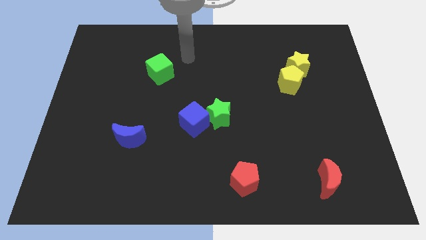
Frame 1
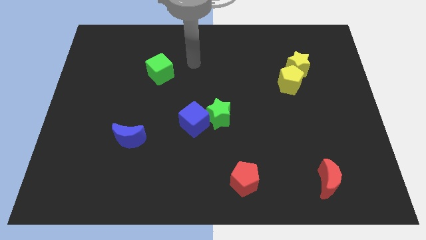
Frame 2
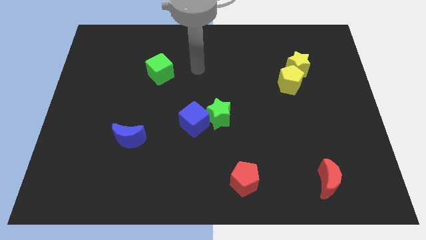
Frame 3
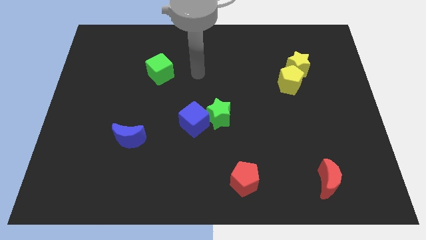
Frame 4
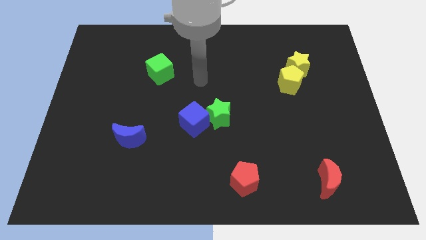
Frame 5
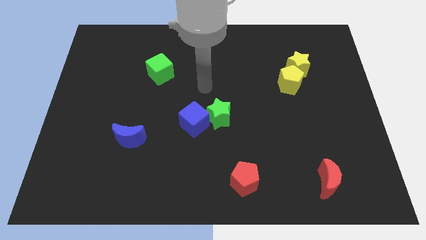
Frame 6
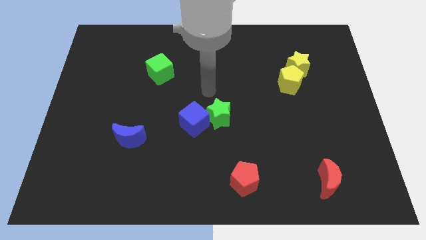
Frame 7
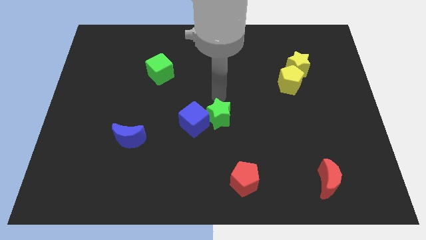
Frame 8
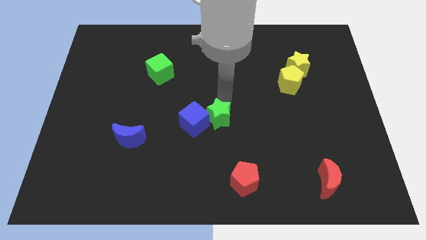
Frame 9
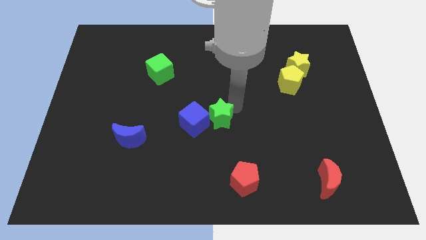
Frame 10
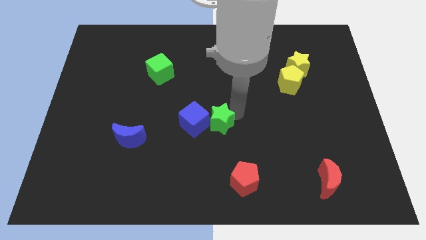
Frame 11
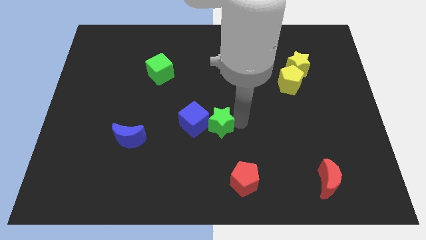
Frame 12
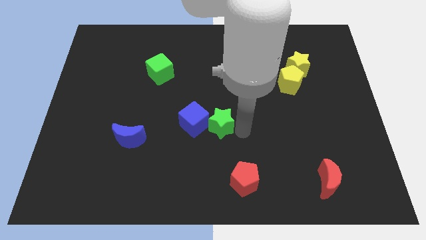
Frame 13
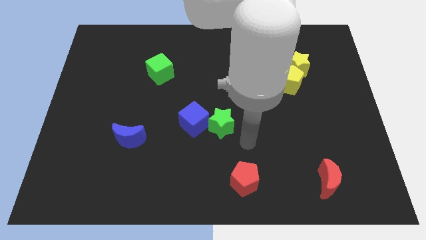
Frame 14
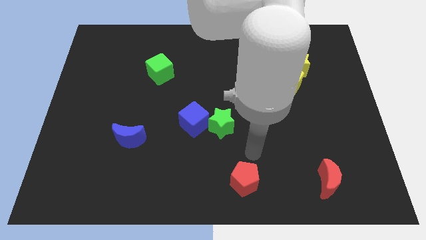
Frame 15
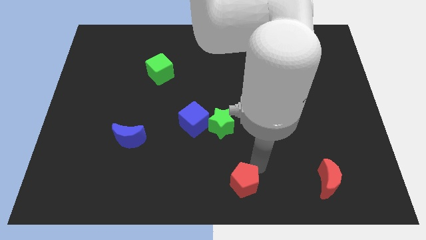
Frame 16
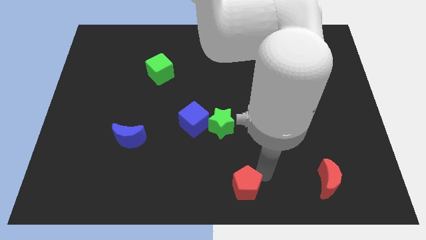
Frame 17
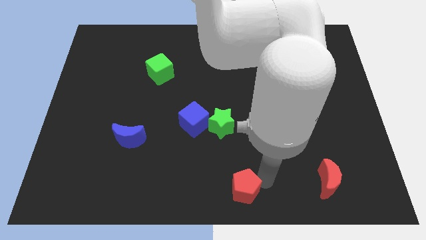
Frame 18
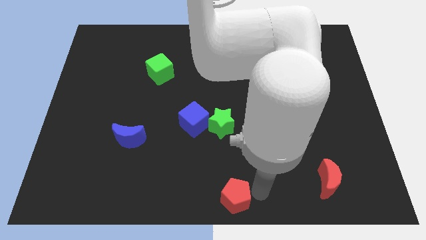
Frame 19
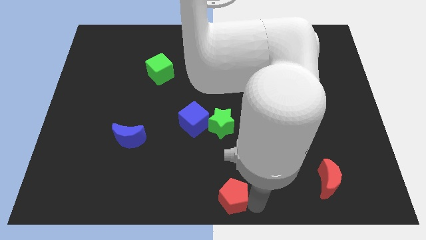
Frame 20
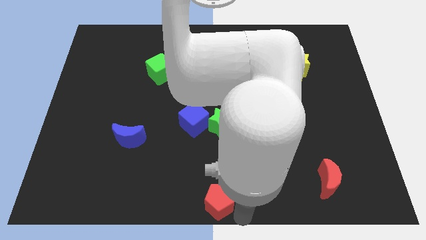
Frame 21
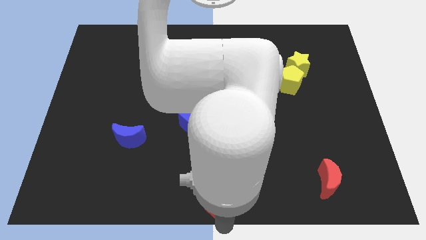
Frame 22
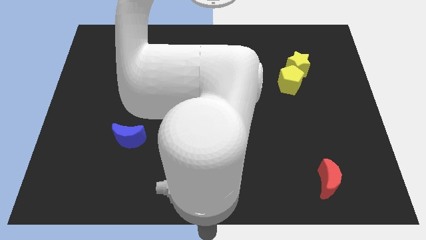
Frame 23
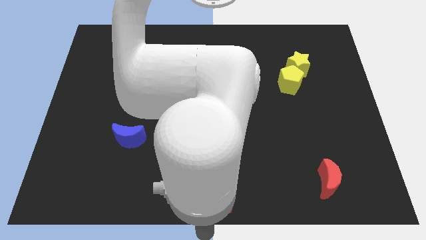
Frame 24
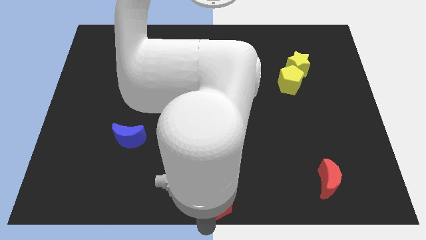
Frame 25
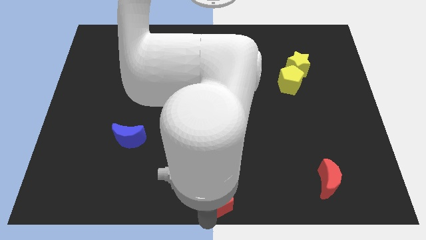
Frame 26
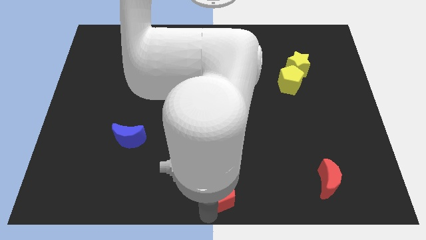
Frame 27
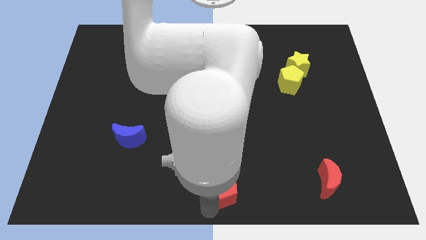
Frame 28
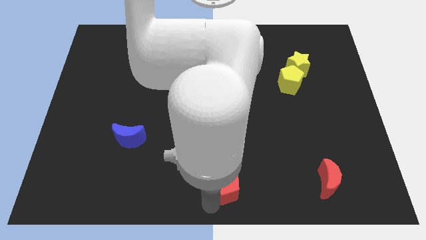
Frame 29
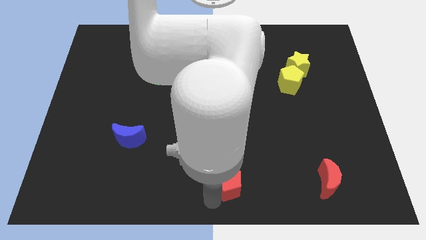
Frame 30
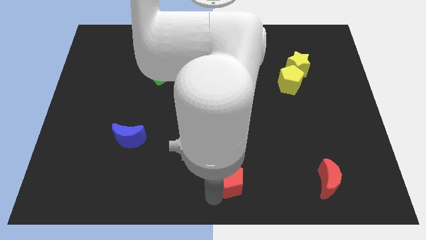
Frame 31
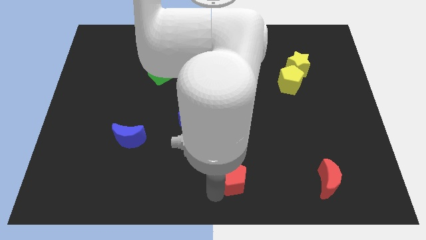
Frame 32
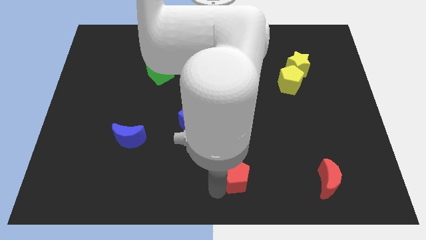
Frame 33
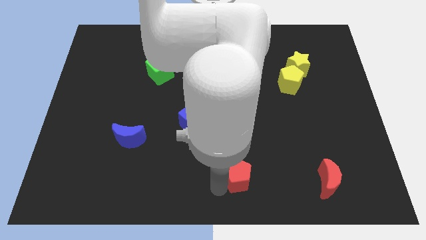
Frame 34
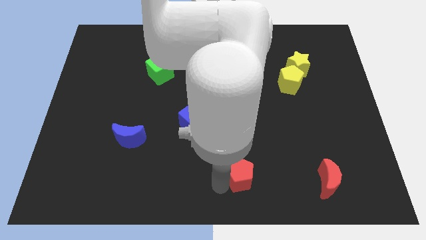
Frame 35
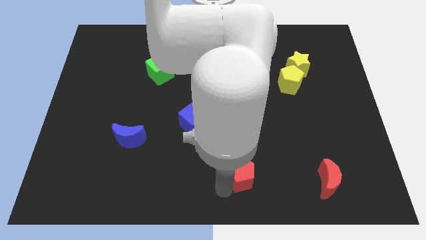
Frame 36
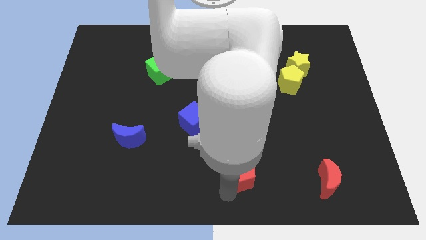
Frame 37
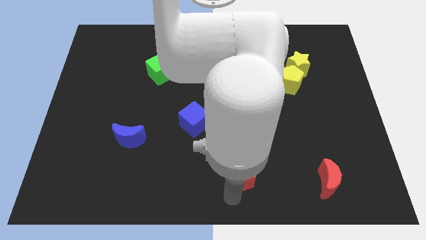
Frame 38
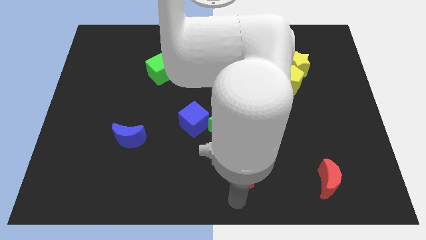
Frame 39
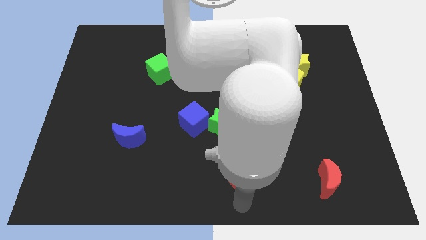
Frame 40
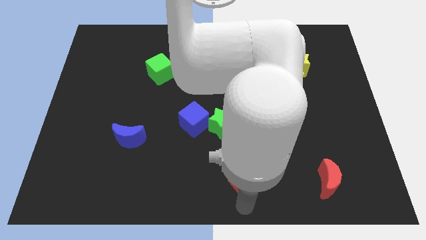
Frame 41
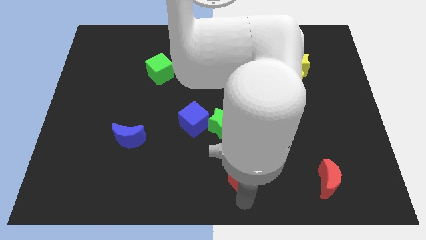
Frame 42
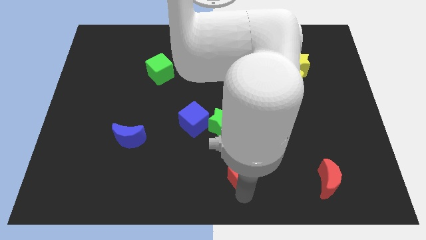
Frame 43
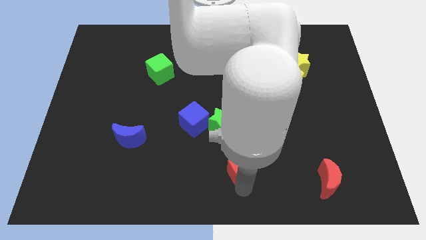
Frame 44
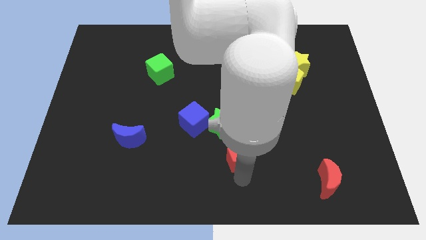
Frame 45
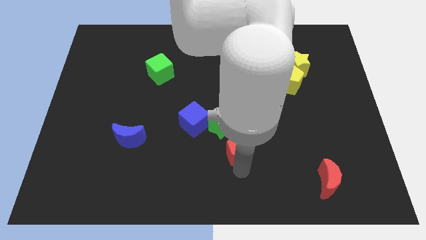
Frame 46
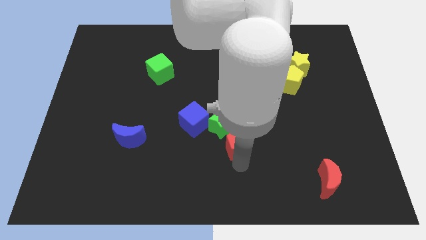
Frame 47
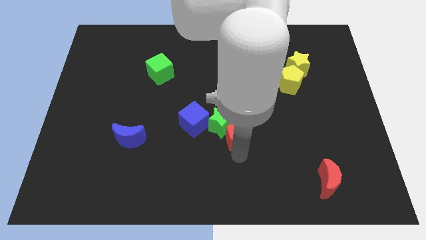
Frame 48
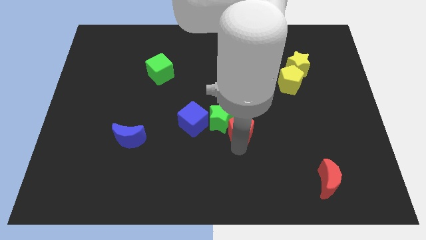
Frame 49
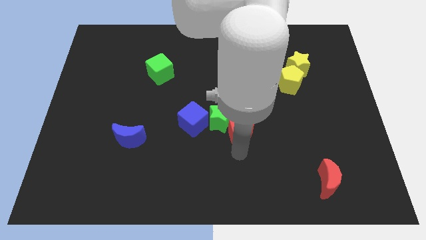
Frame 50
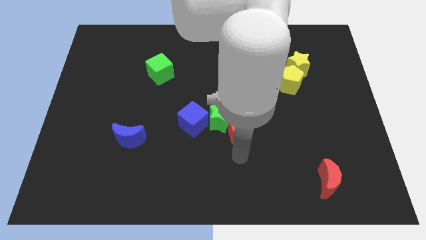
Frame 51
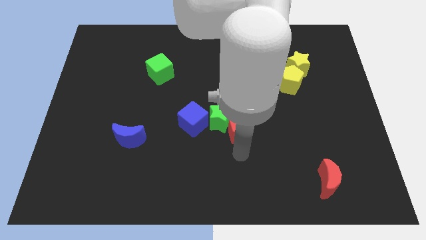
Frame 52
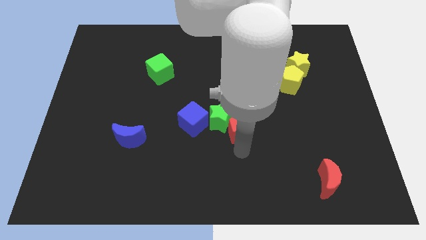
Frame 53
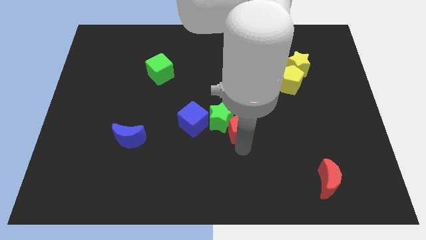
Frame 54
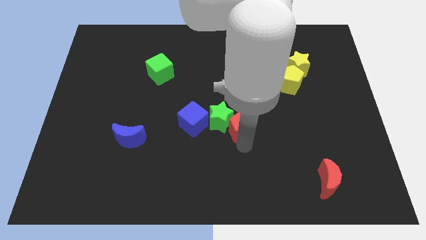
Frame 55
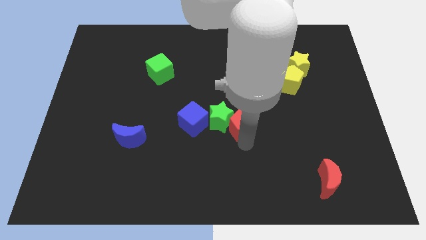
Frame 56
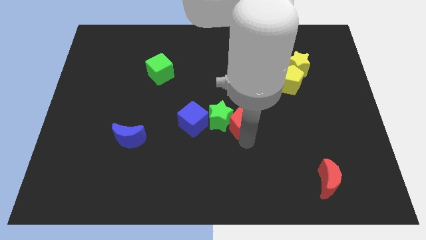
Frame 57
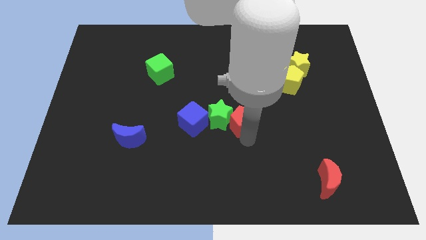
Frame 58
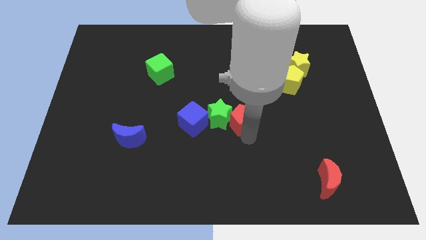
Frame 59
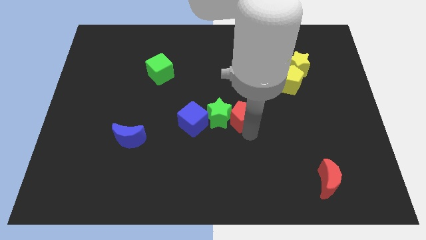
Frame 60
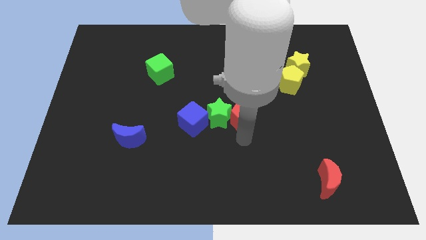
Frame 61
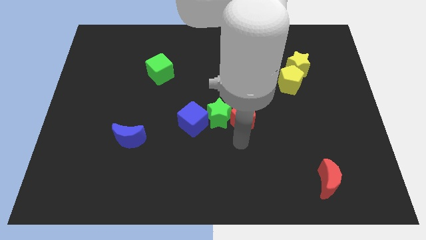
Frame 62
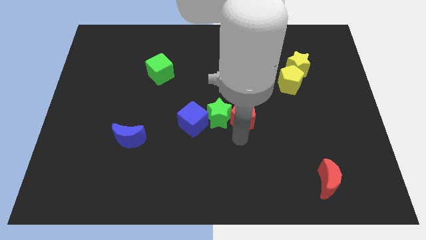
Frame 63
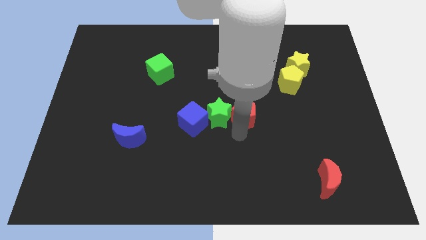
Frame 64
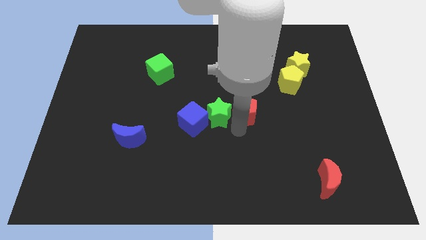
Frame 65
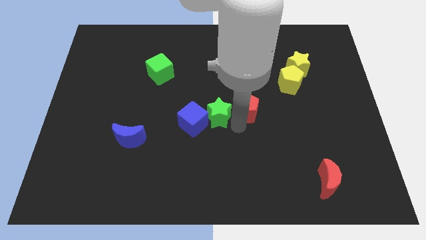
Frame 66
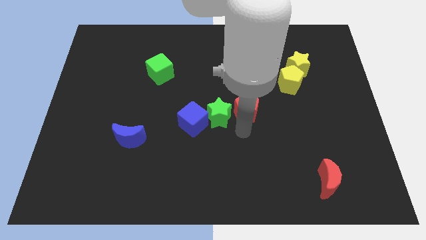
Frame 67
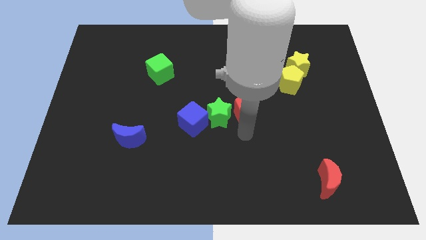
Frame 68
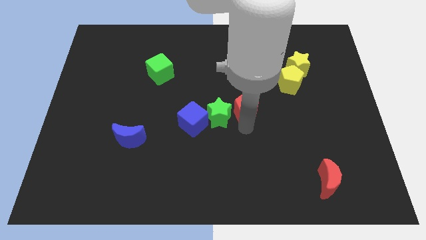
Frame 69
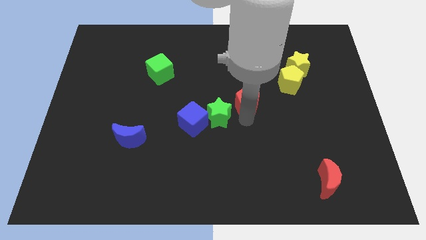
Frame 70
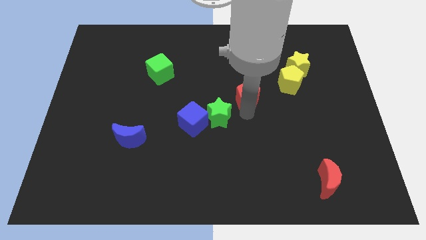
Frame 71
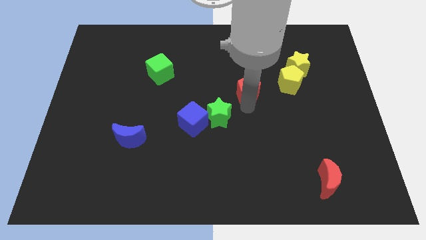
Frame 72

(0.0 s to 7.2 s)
move the red pentagon to the left side of the yellow pentagon

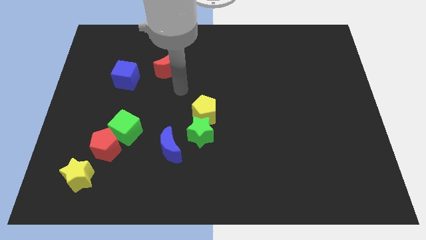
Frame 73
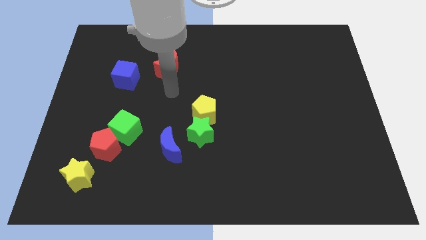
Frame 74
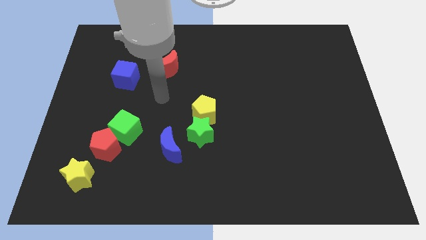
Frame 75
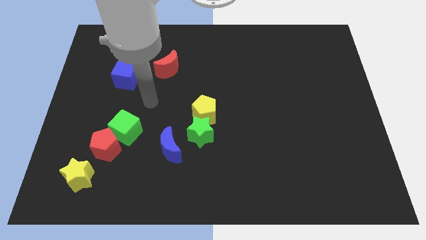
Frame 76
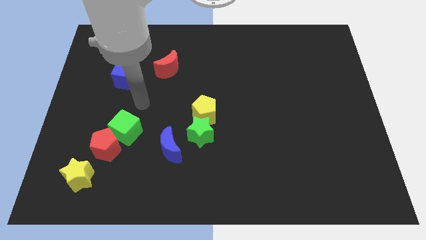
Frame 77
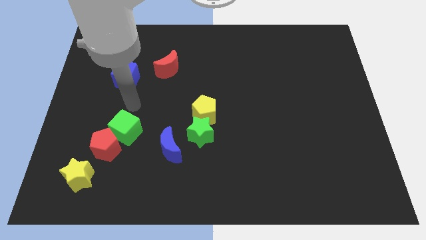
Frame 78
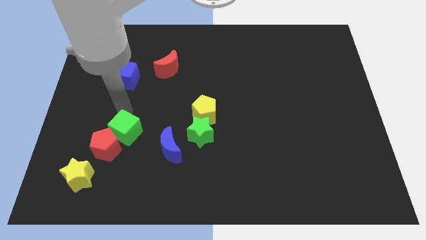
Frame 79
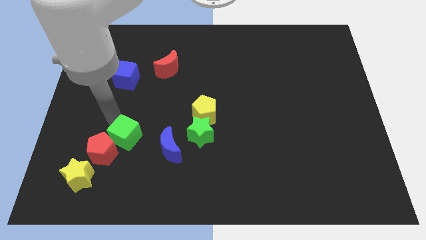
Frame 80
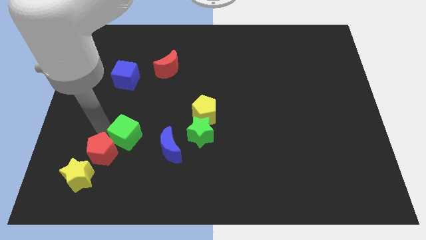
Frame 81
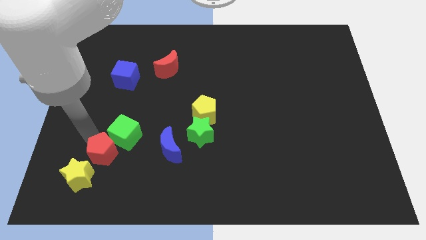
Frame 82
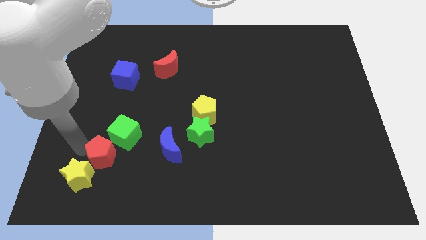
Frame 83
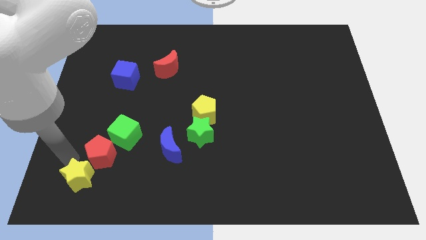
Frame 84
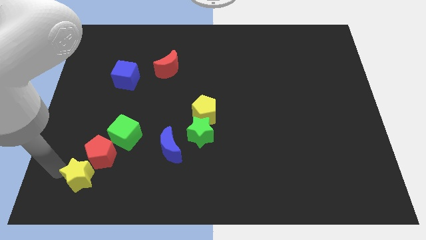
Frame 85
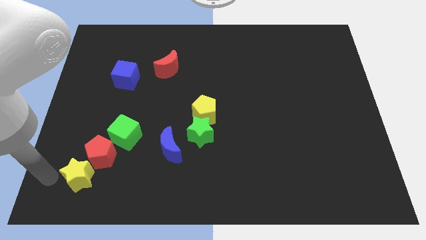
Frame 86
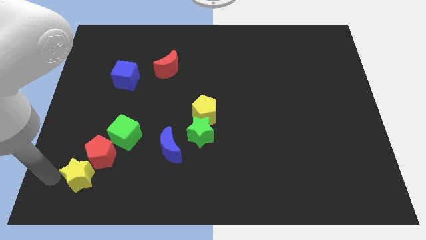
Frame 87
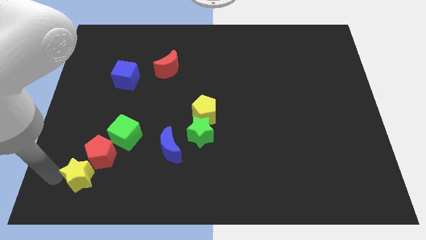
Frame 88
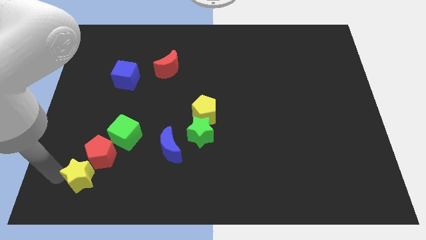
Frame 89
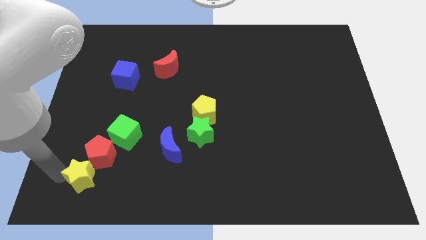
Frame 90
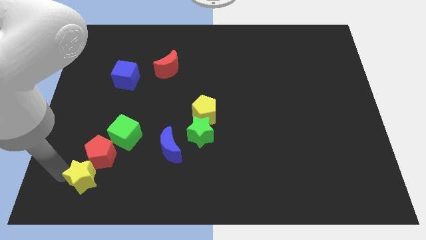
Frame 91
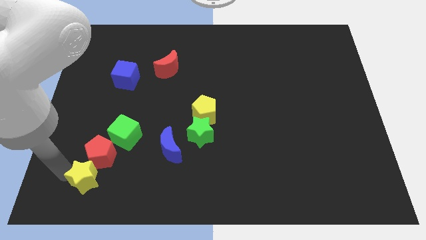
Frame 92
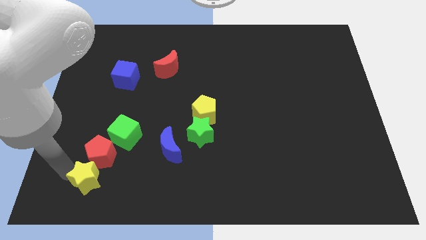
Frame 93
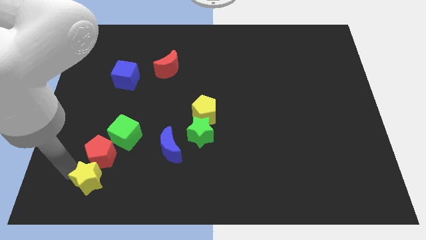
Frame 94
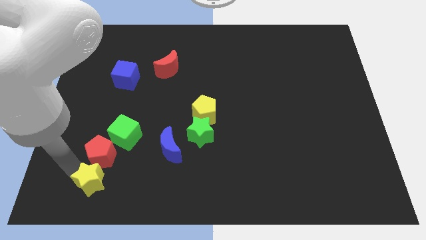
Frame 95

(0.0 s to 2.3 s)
put the yellow star diagonally down and to the right of the red pentagon
